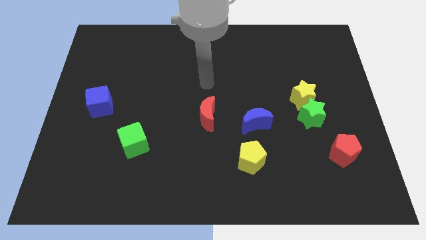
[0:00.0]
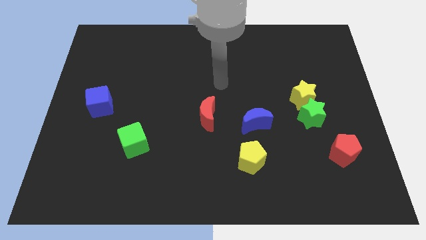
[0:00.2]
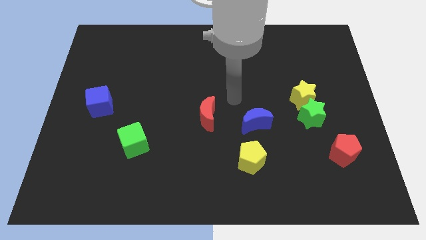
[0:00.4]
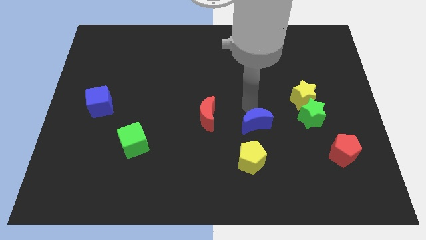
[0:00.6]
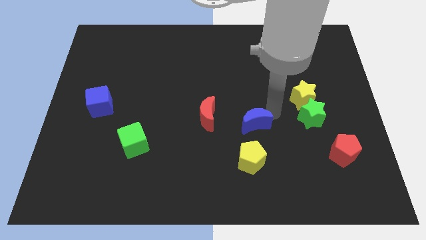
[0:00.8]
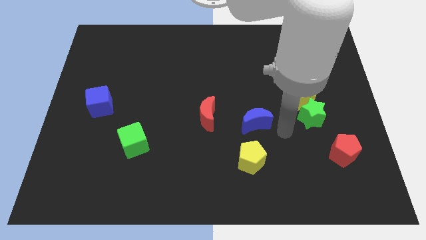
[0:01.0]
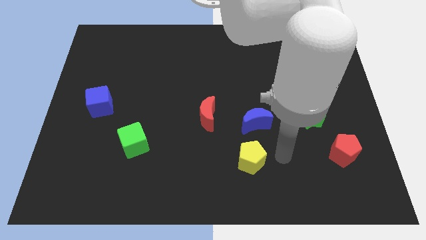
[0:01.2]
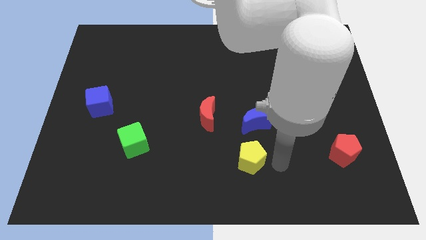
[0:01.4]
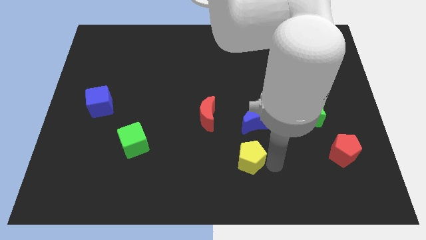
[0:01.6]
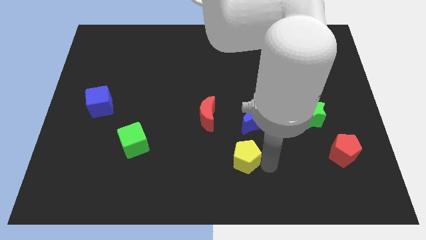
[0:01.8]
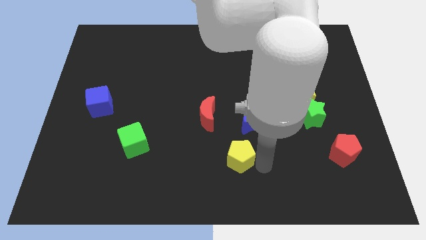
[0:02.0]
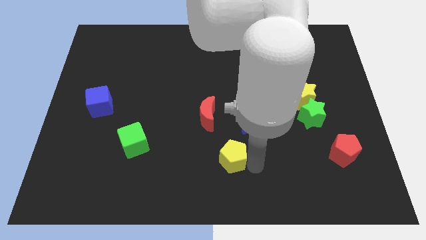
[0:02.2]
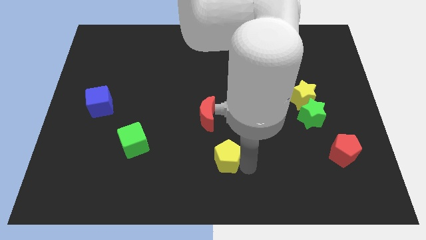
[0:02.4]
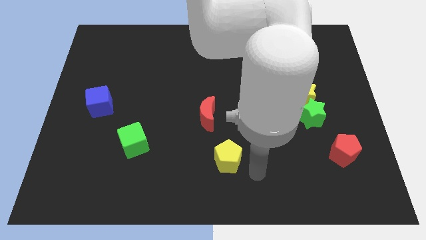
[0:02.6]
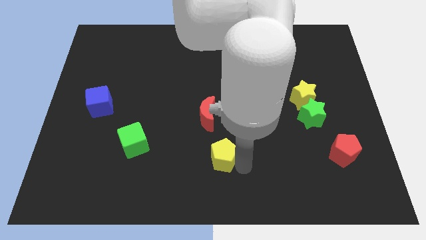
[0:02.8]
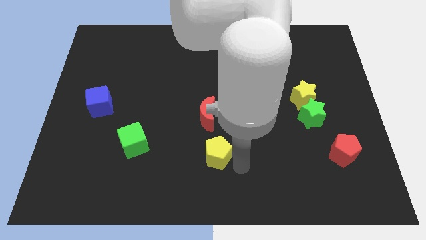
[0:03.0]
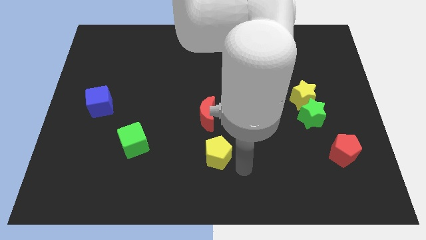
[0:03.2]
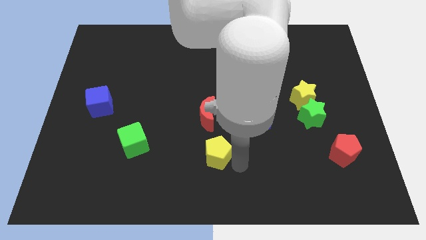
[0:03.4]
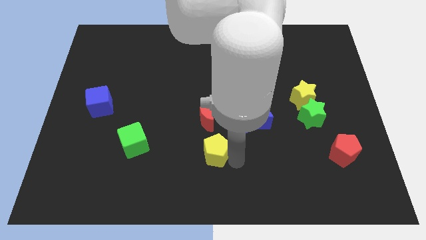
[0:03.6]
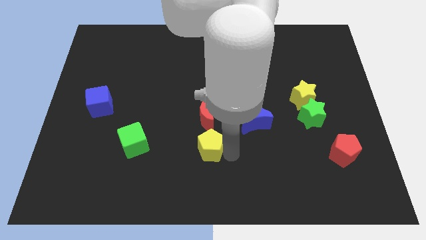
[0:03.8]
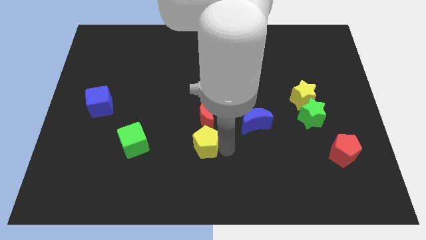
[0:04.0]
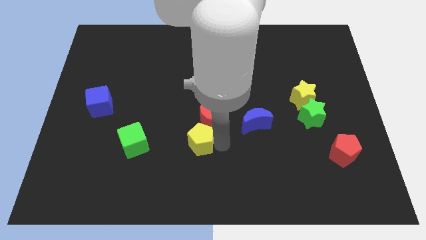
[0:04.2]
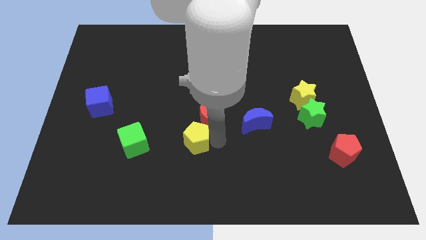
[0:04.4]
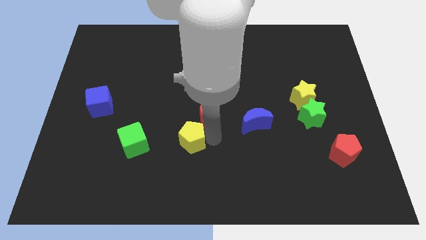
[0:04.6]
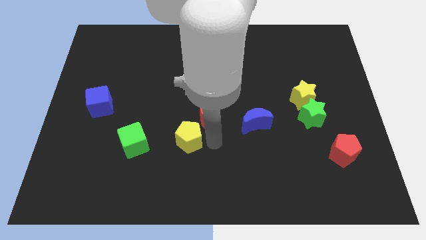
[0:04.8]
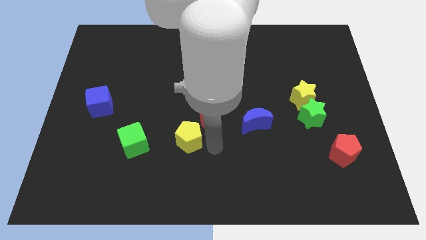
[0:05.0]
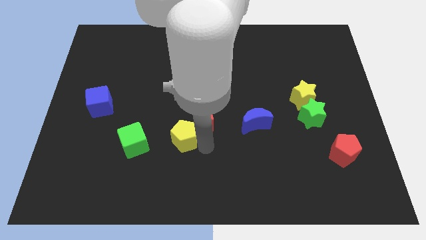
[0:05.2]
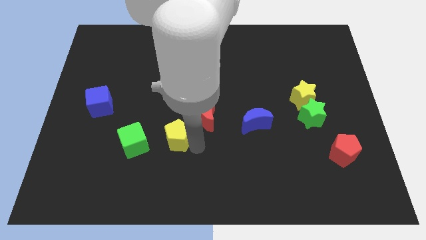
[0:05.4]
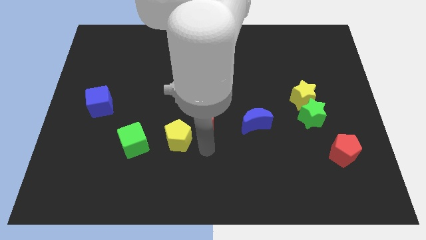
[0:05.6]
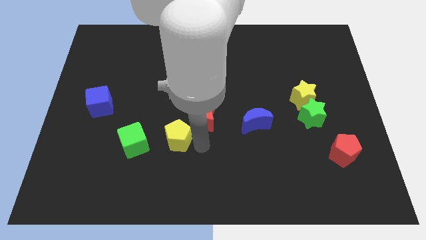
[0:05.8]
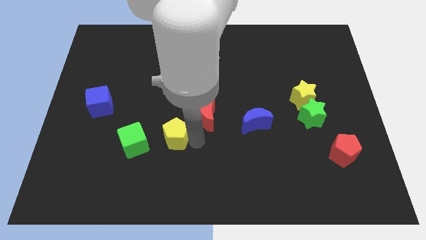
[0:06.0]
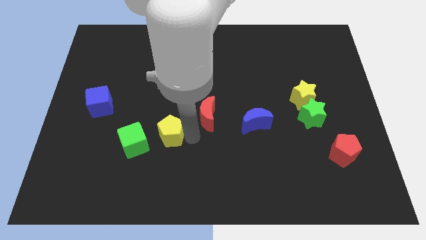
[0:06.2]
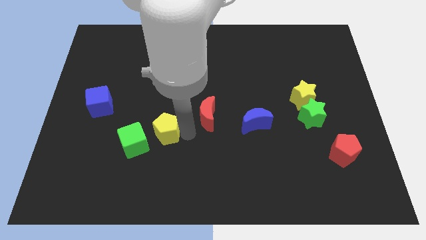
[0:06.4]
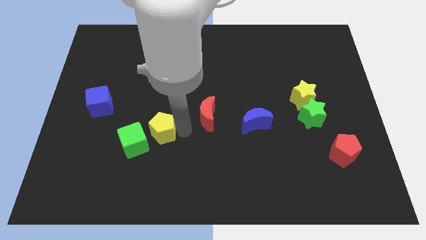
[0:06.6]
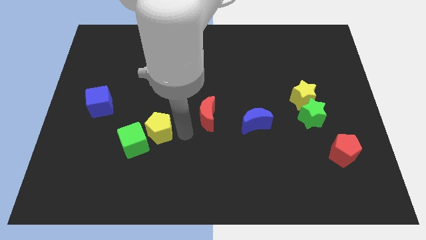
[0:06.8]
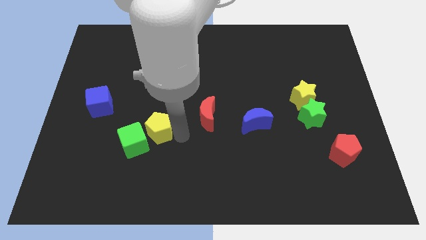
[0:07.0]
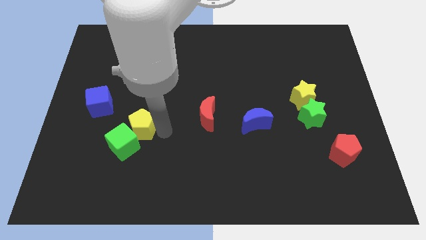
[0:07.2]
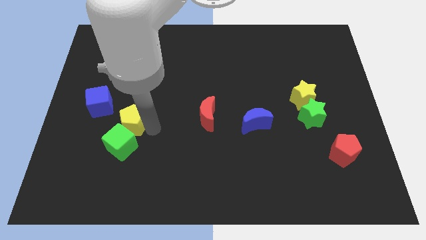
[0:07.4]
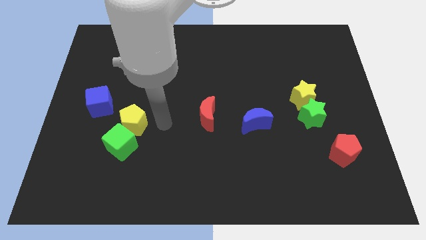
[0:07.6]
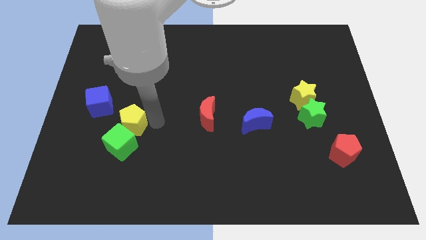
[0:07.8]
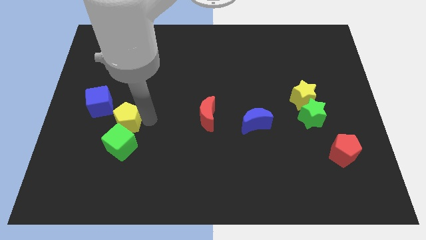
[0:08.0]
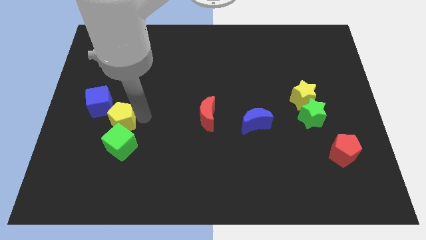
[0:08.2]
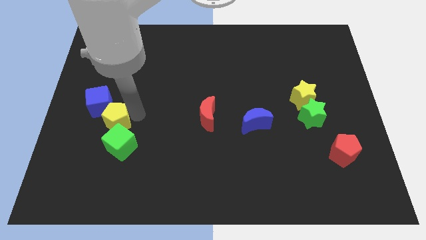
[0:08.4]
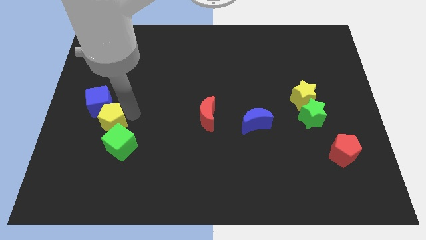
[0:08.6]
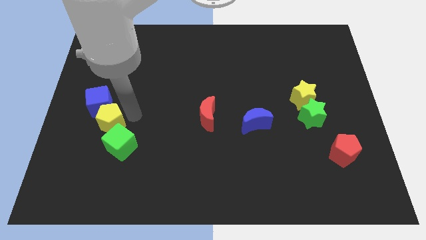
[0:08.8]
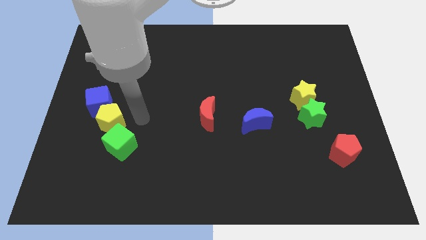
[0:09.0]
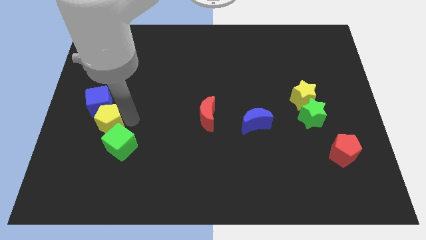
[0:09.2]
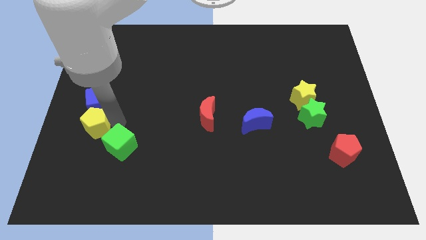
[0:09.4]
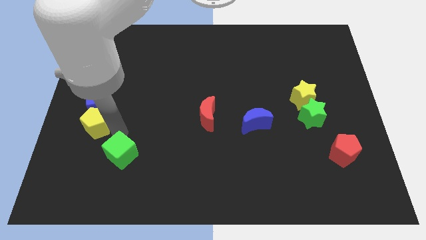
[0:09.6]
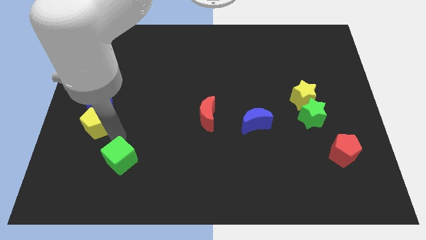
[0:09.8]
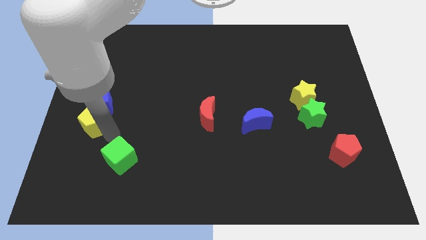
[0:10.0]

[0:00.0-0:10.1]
push the yellow pentagon to the left side of the board

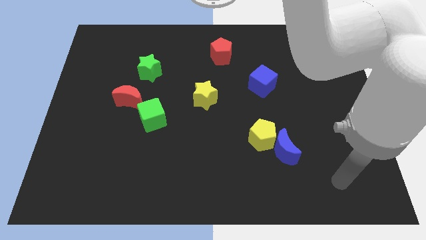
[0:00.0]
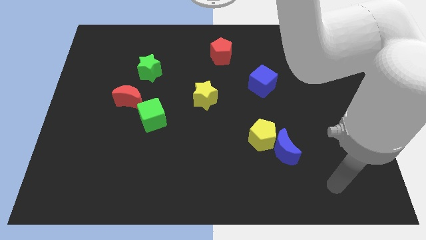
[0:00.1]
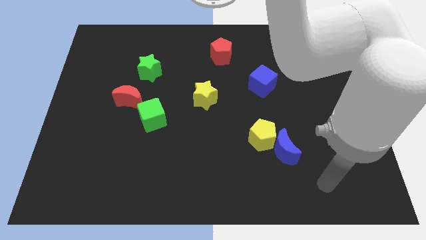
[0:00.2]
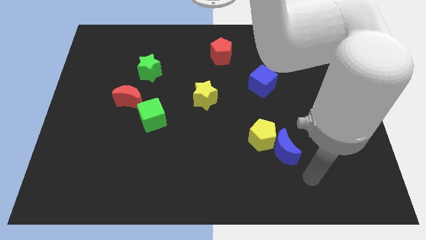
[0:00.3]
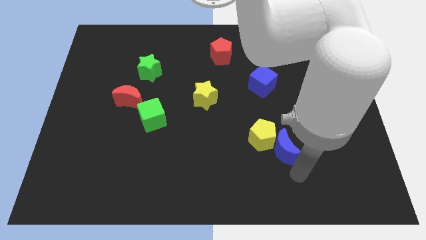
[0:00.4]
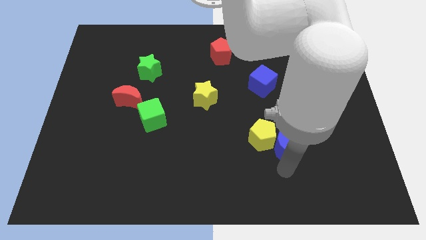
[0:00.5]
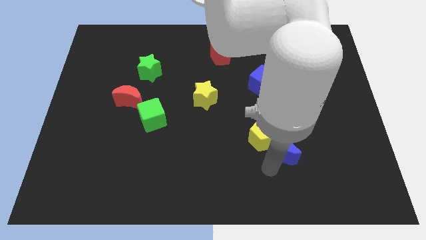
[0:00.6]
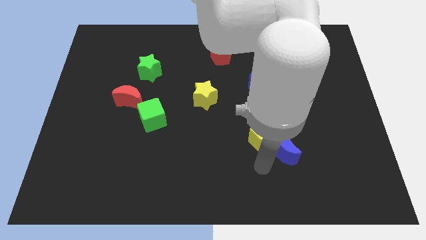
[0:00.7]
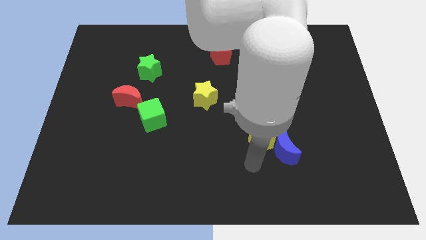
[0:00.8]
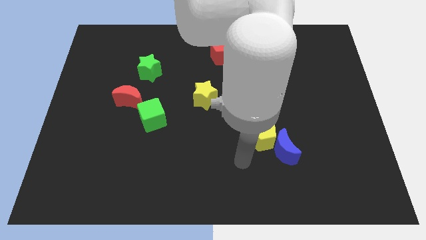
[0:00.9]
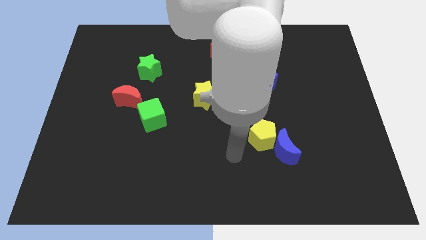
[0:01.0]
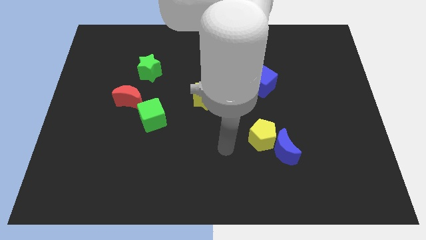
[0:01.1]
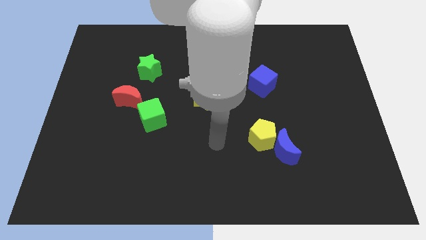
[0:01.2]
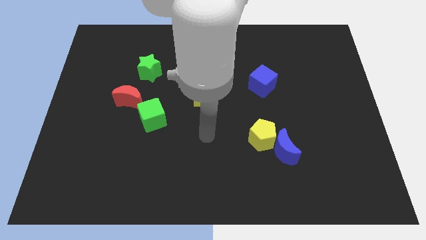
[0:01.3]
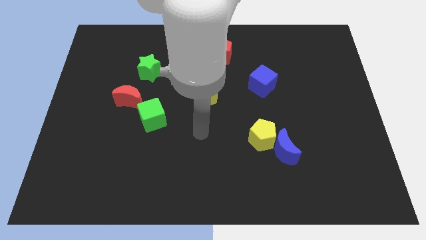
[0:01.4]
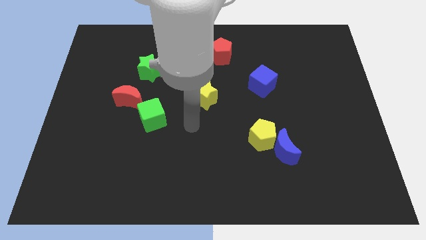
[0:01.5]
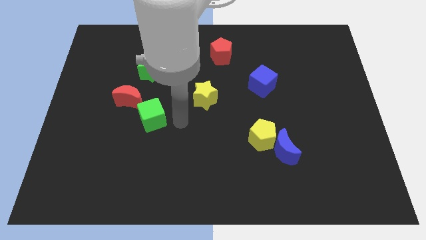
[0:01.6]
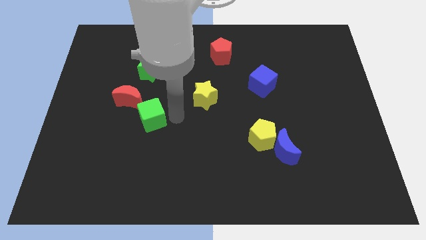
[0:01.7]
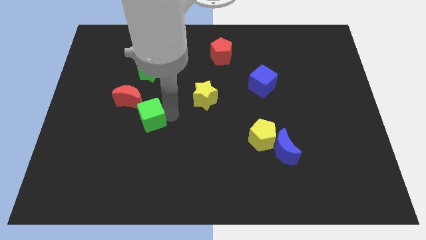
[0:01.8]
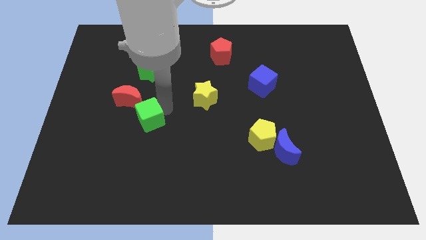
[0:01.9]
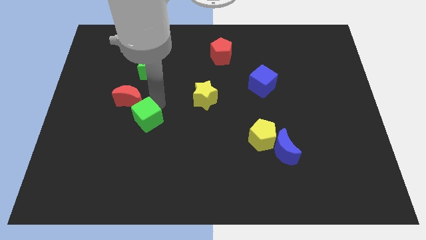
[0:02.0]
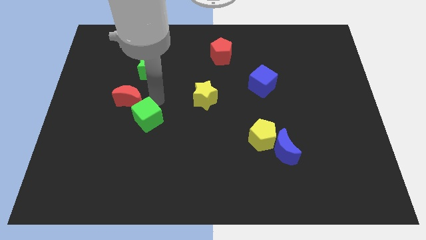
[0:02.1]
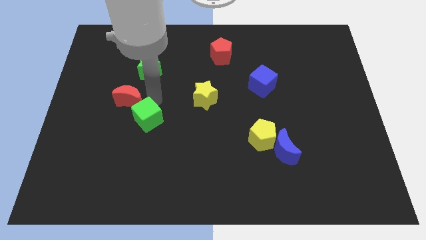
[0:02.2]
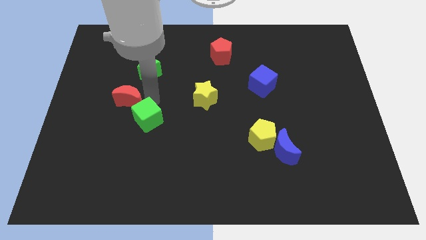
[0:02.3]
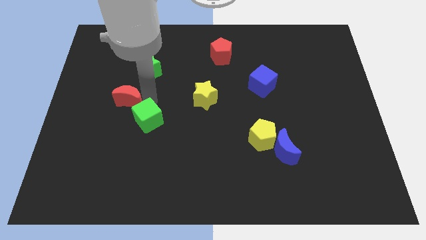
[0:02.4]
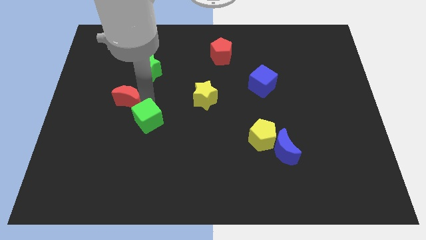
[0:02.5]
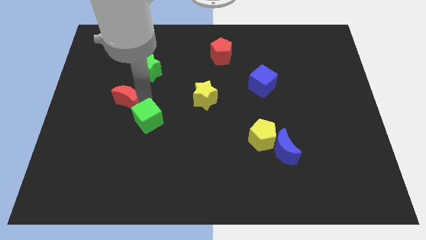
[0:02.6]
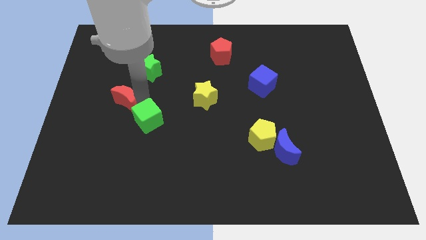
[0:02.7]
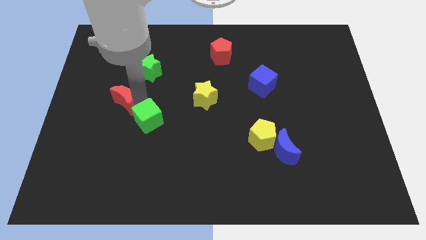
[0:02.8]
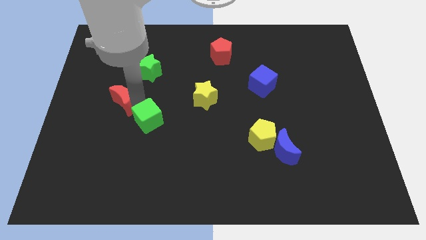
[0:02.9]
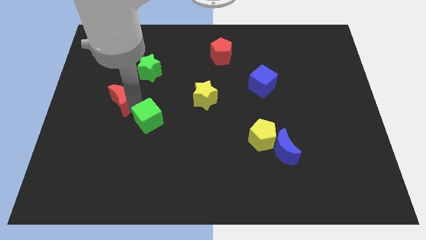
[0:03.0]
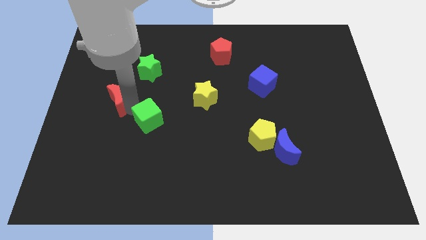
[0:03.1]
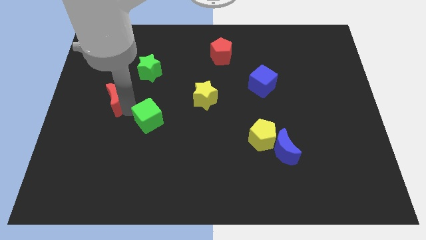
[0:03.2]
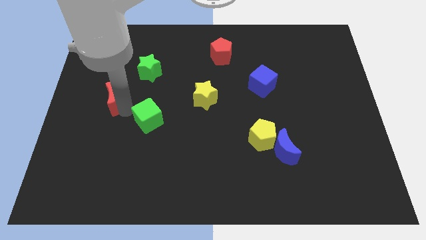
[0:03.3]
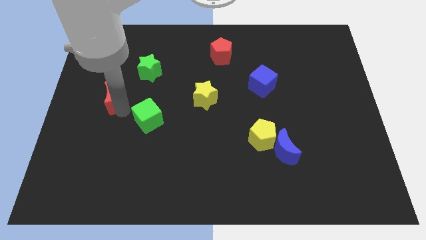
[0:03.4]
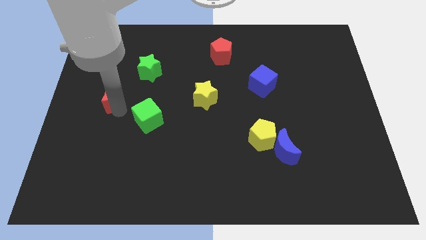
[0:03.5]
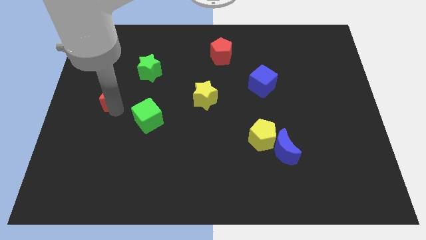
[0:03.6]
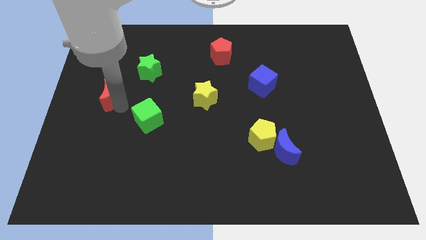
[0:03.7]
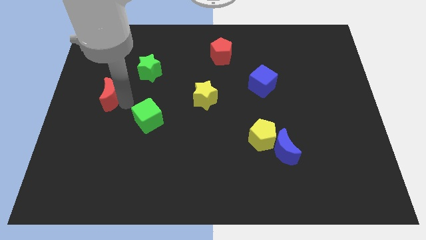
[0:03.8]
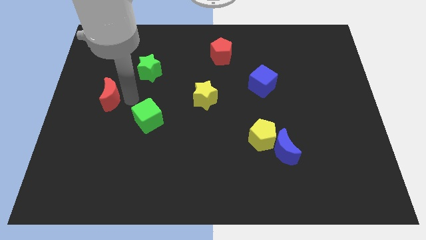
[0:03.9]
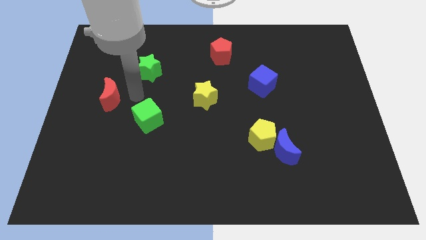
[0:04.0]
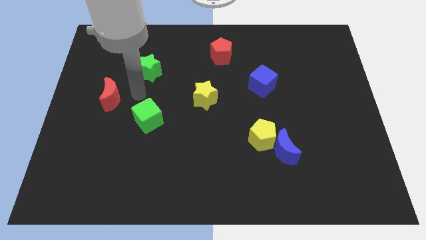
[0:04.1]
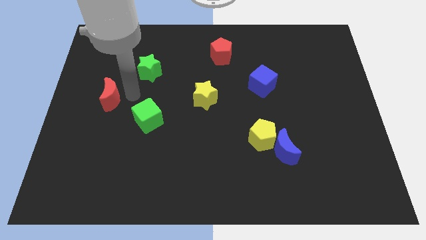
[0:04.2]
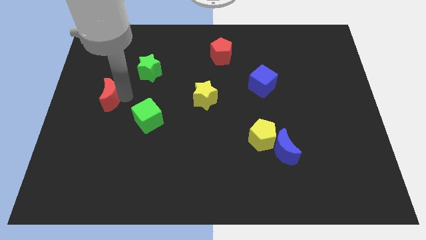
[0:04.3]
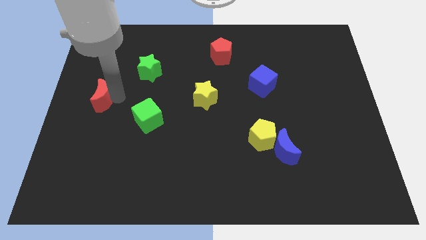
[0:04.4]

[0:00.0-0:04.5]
push the red moon to the left side
